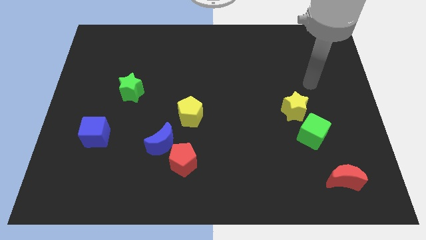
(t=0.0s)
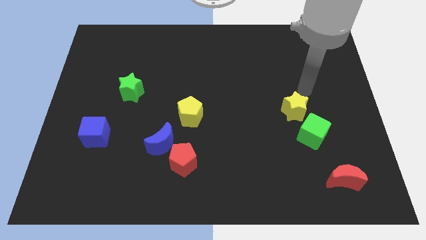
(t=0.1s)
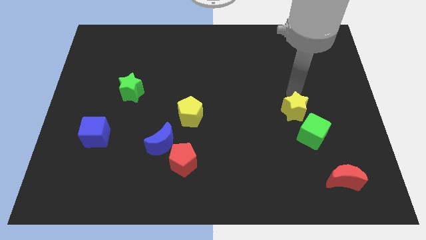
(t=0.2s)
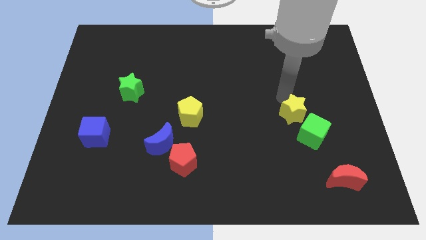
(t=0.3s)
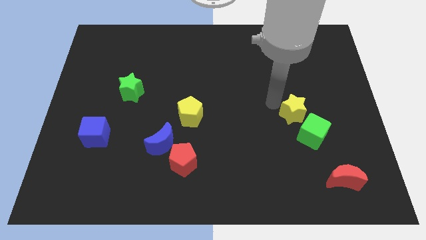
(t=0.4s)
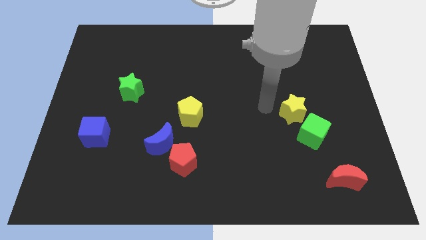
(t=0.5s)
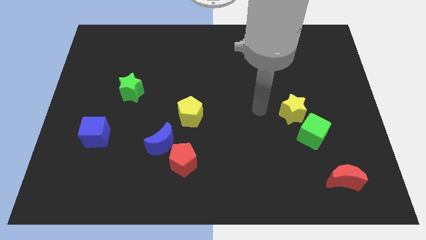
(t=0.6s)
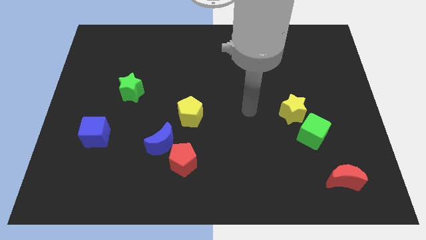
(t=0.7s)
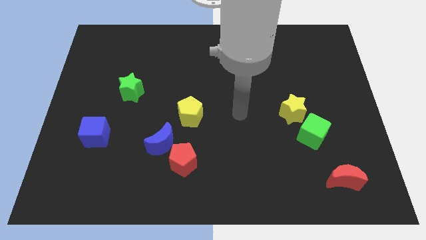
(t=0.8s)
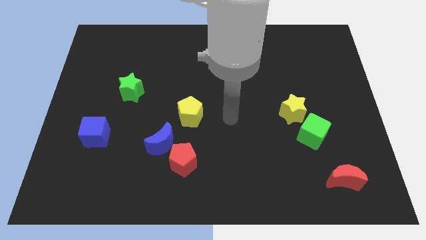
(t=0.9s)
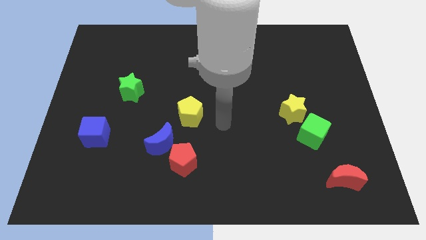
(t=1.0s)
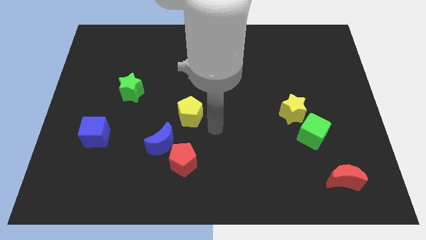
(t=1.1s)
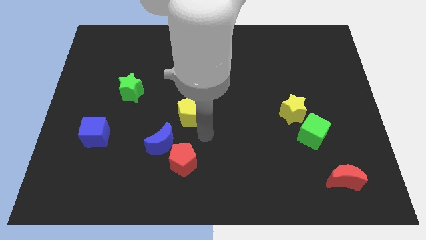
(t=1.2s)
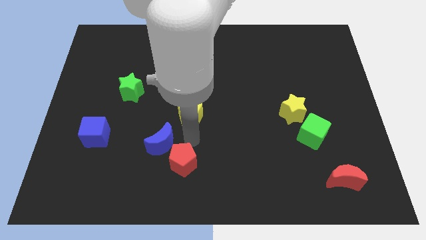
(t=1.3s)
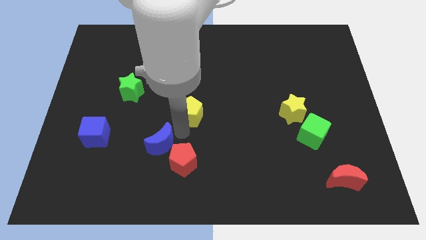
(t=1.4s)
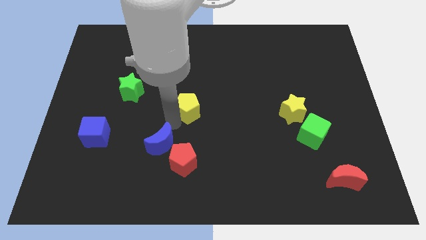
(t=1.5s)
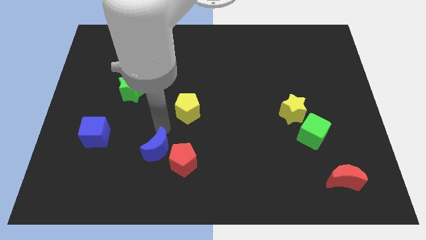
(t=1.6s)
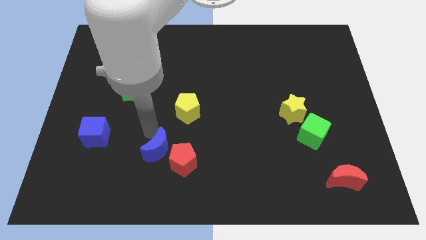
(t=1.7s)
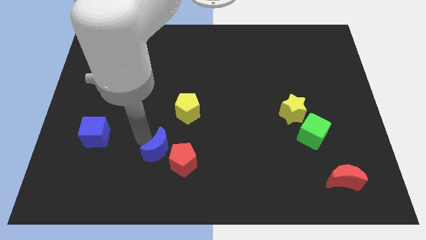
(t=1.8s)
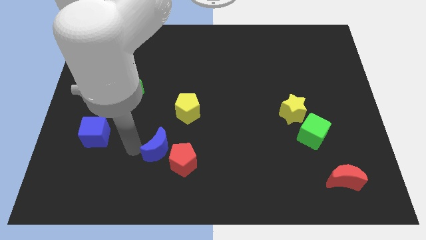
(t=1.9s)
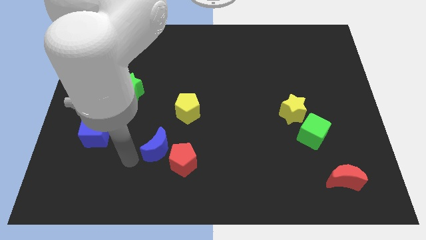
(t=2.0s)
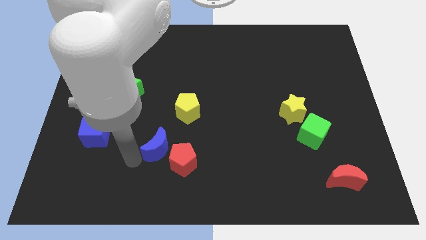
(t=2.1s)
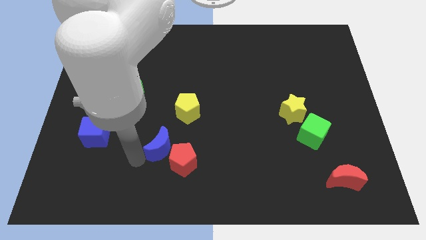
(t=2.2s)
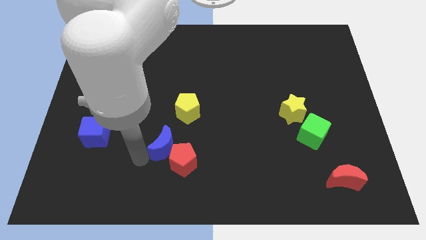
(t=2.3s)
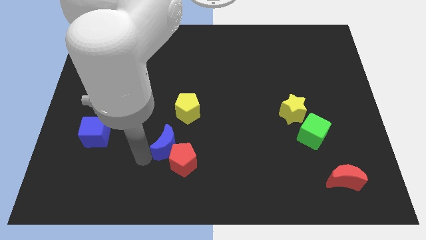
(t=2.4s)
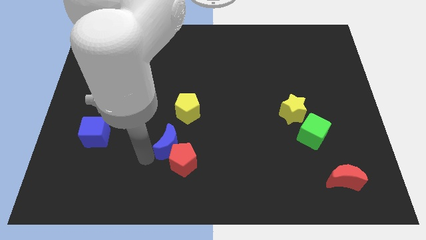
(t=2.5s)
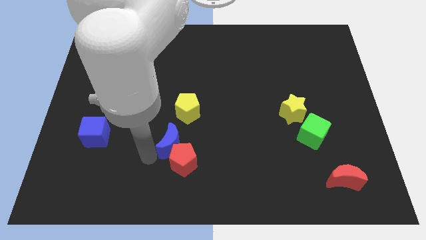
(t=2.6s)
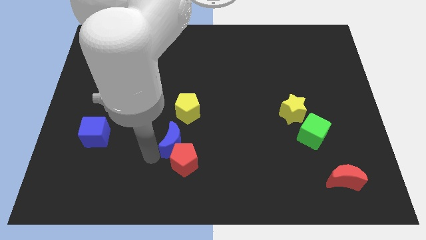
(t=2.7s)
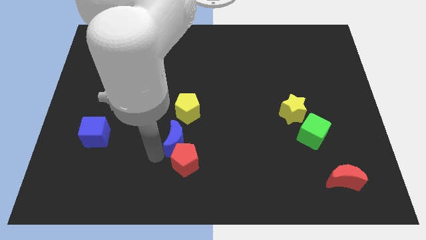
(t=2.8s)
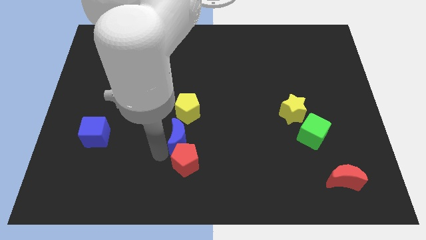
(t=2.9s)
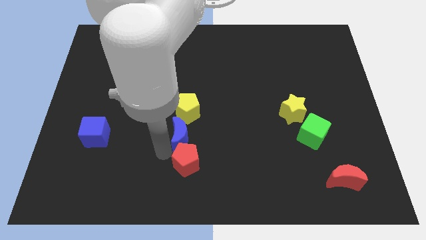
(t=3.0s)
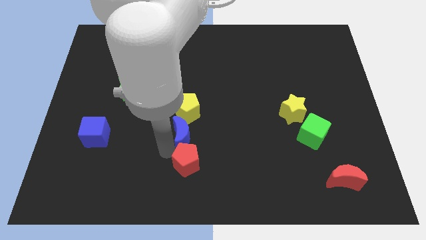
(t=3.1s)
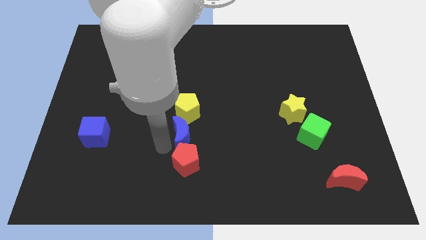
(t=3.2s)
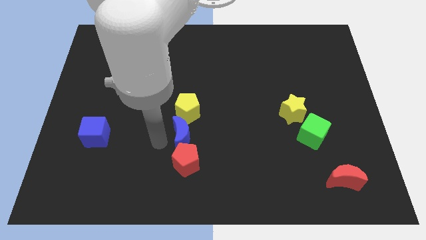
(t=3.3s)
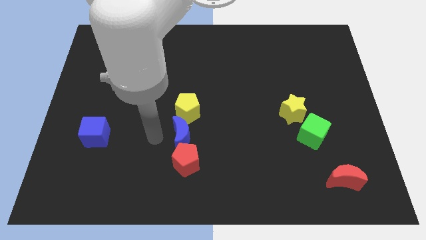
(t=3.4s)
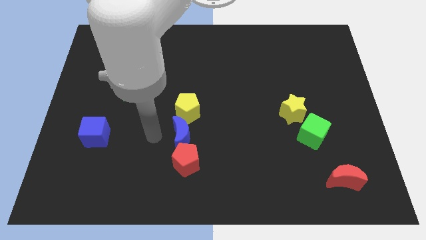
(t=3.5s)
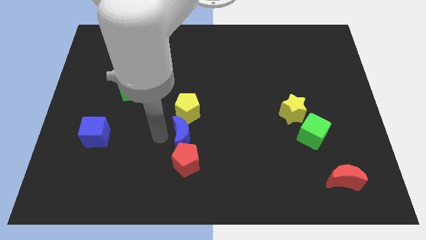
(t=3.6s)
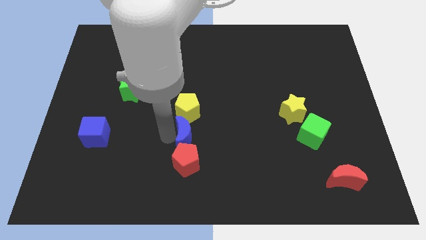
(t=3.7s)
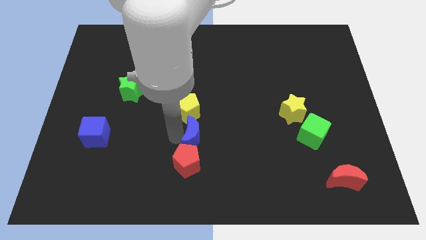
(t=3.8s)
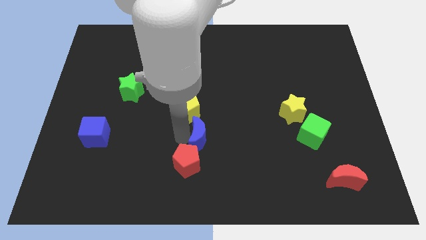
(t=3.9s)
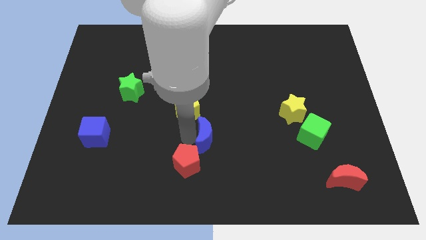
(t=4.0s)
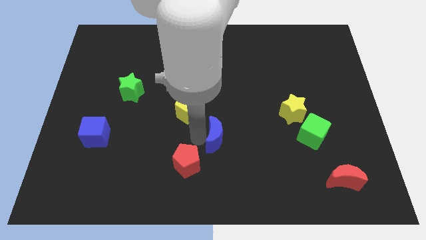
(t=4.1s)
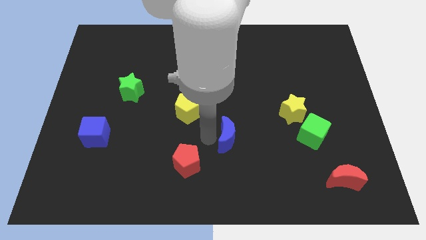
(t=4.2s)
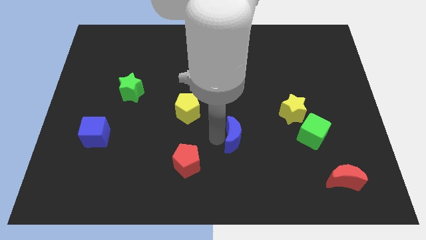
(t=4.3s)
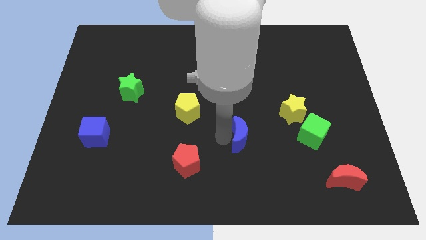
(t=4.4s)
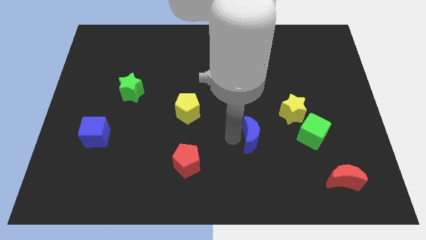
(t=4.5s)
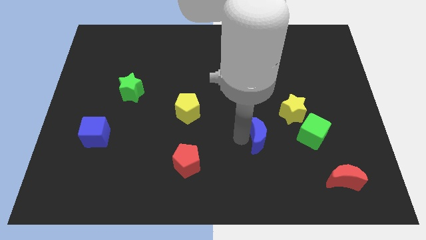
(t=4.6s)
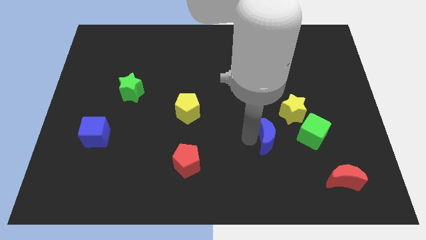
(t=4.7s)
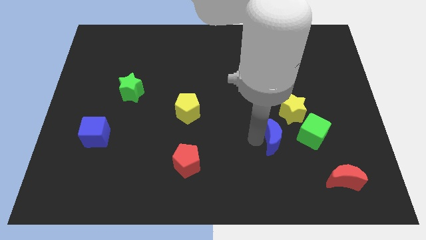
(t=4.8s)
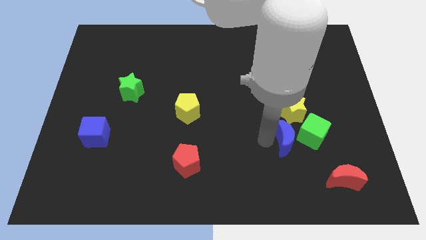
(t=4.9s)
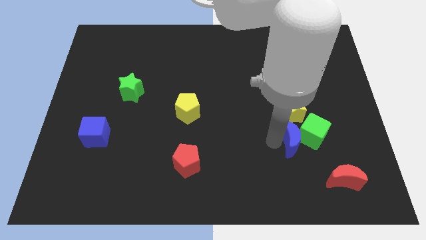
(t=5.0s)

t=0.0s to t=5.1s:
move the blue moon to the green cube

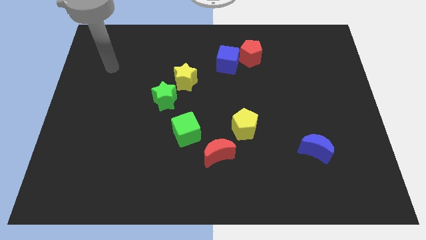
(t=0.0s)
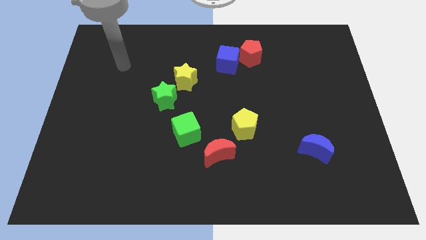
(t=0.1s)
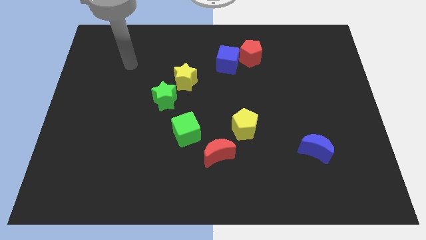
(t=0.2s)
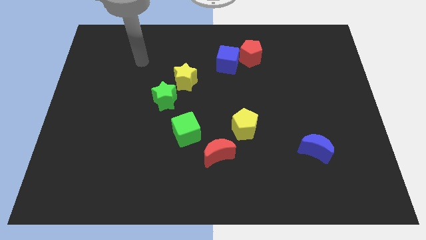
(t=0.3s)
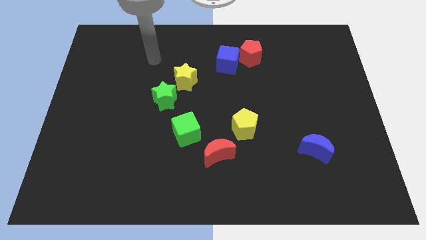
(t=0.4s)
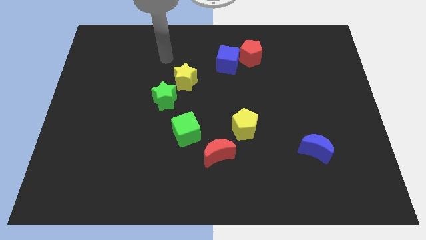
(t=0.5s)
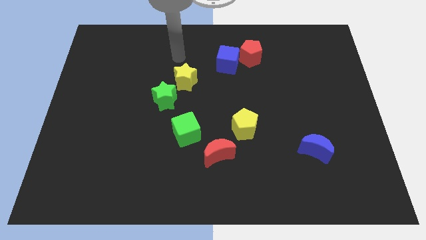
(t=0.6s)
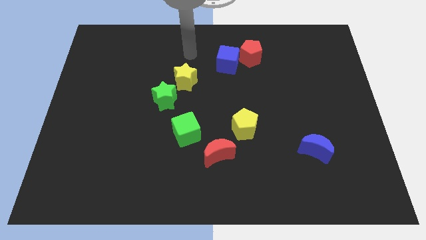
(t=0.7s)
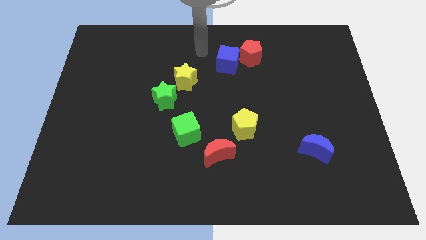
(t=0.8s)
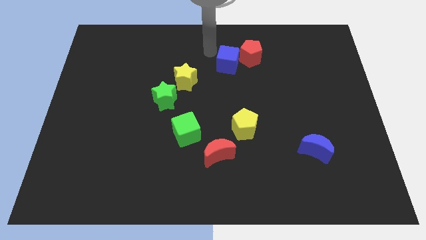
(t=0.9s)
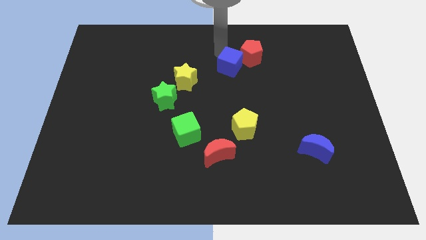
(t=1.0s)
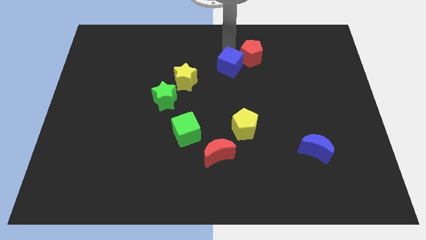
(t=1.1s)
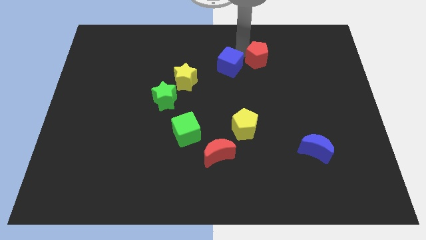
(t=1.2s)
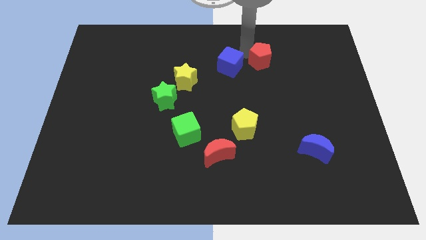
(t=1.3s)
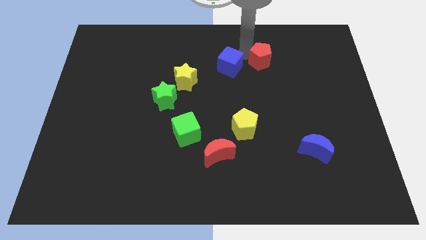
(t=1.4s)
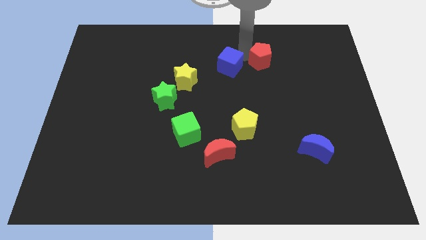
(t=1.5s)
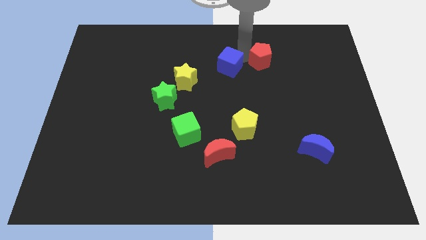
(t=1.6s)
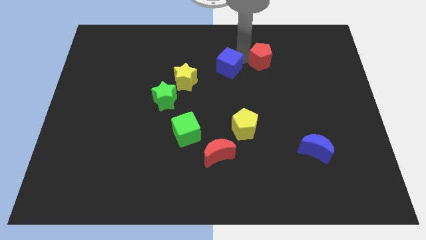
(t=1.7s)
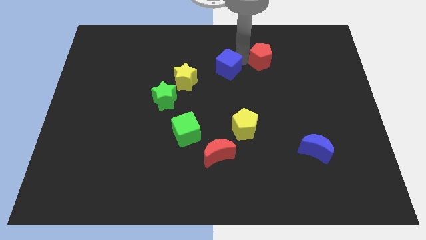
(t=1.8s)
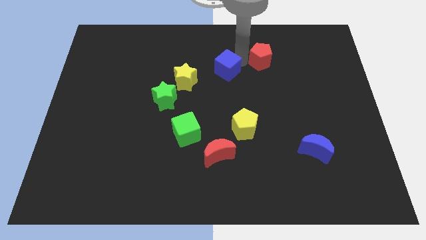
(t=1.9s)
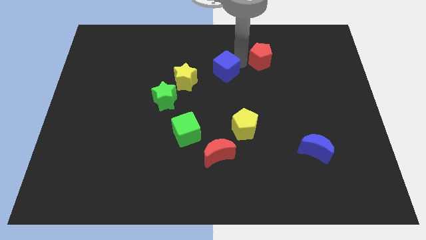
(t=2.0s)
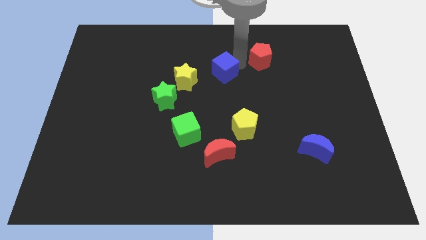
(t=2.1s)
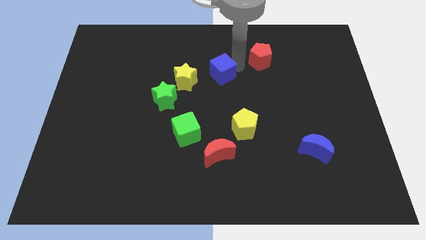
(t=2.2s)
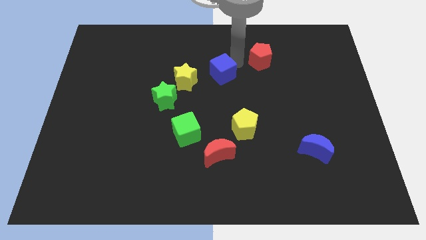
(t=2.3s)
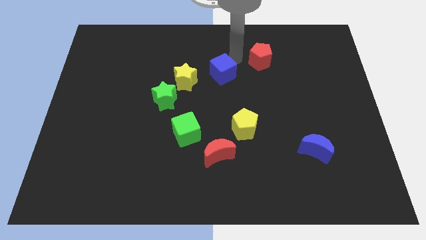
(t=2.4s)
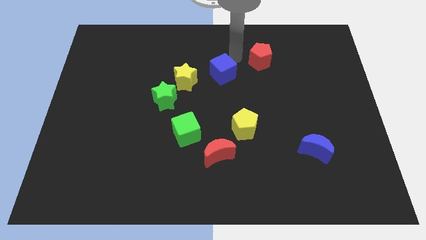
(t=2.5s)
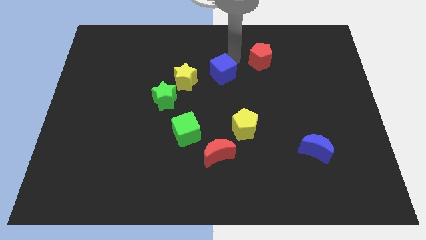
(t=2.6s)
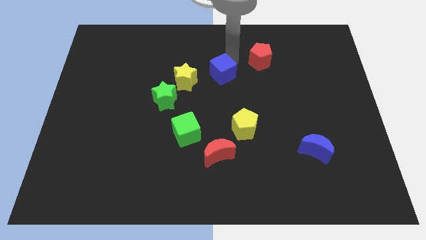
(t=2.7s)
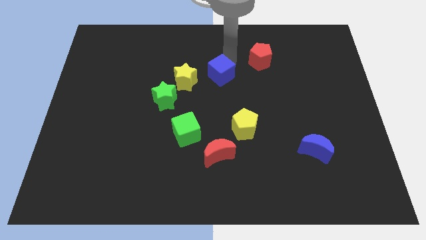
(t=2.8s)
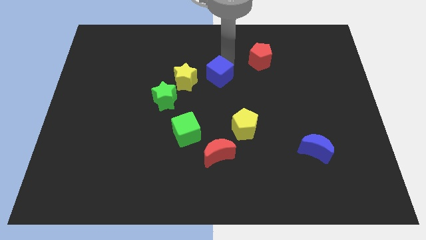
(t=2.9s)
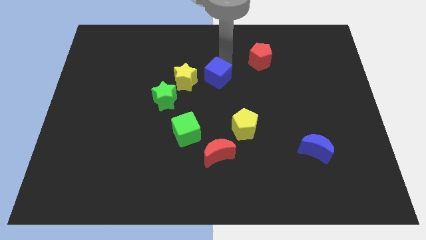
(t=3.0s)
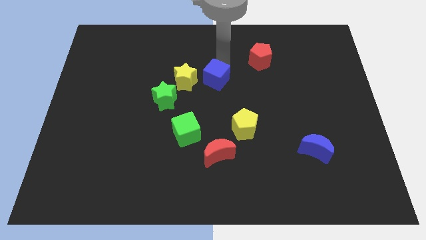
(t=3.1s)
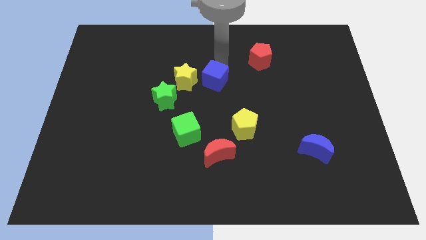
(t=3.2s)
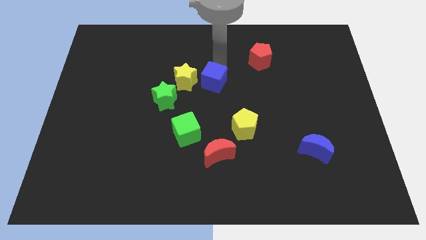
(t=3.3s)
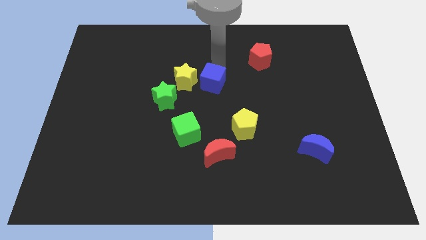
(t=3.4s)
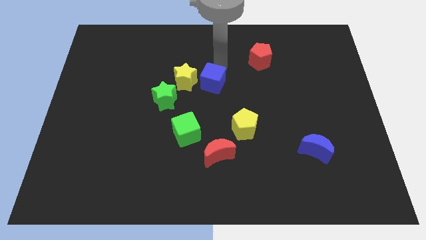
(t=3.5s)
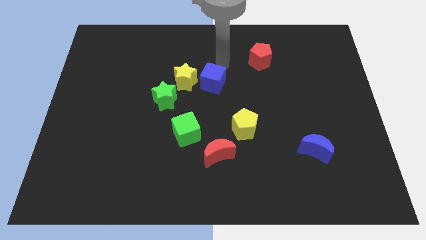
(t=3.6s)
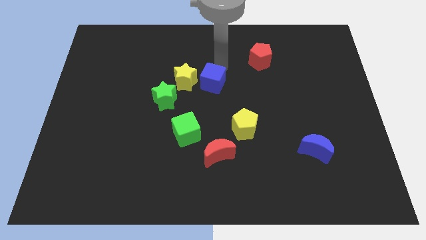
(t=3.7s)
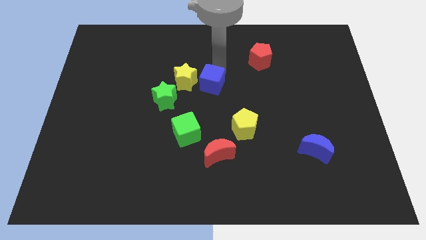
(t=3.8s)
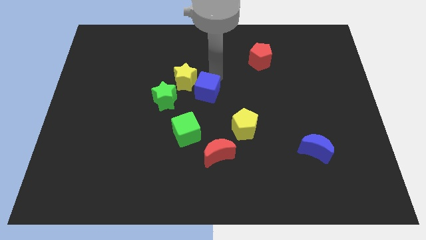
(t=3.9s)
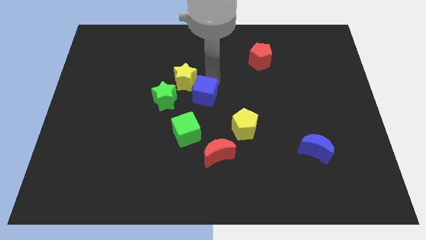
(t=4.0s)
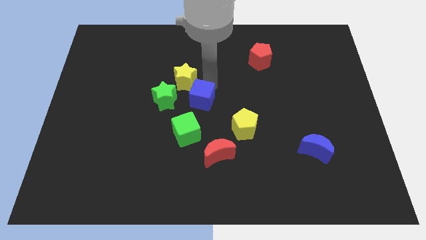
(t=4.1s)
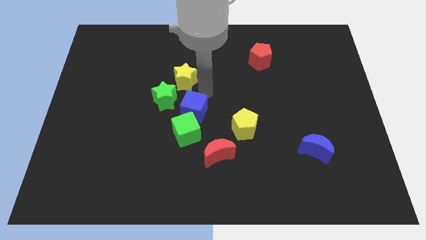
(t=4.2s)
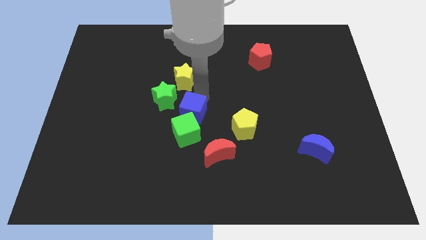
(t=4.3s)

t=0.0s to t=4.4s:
push the blue cube towards the green cube
